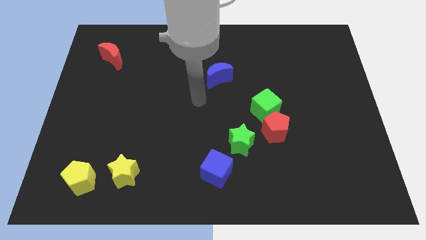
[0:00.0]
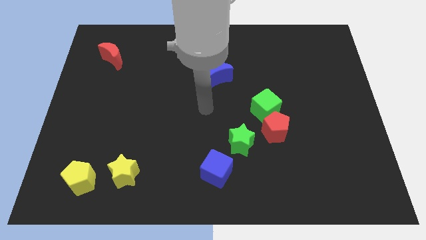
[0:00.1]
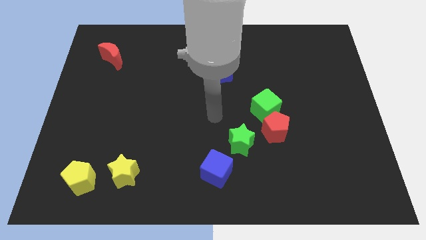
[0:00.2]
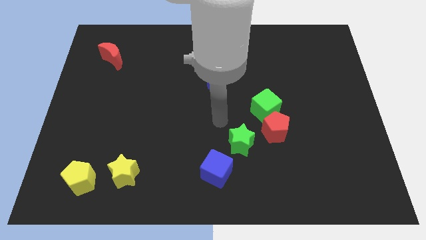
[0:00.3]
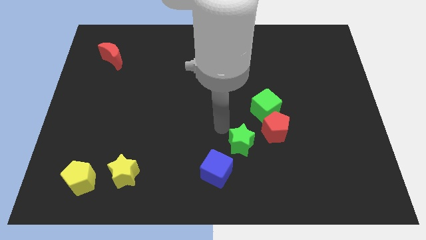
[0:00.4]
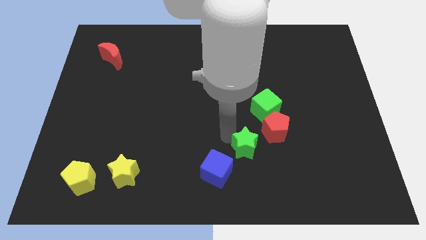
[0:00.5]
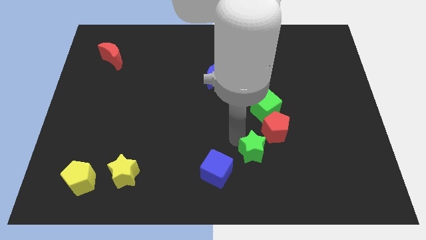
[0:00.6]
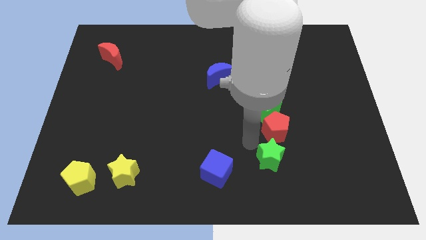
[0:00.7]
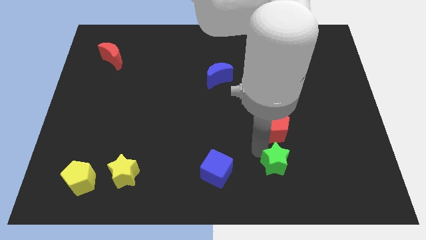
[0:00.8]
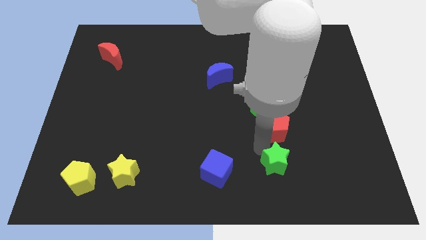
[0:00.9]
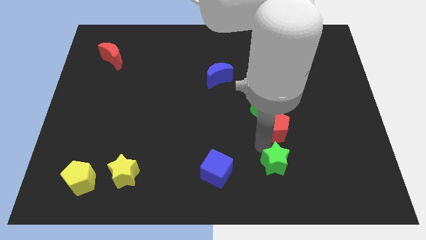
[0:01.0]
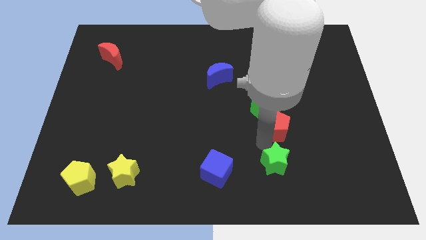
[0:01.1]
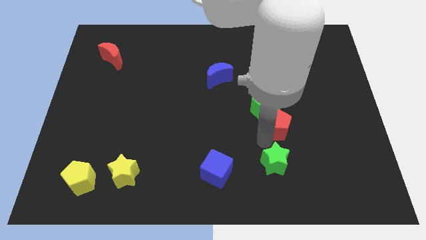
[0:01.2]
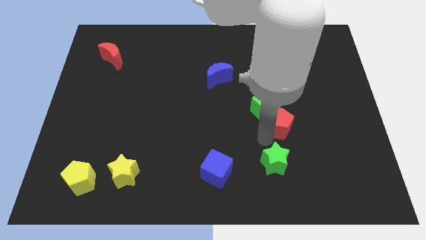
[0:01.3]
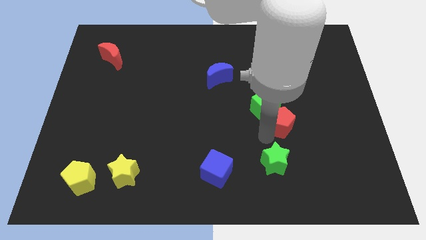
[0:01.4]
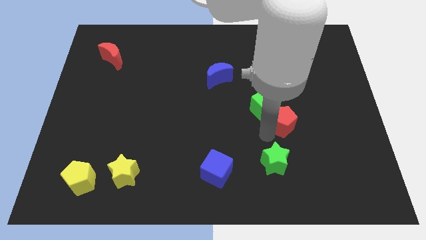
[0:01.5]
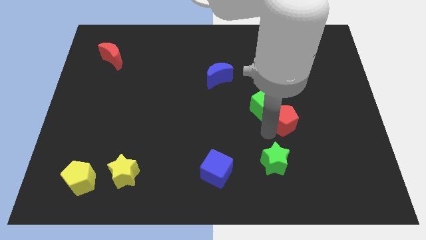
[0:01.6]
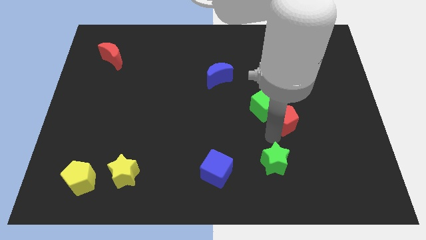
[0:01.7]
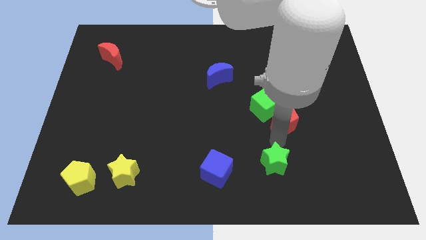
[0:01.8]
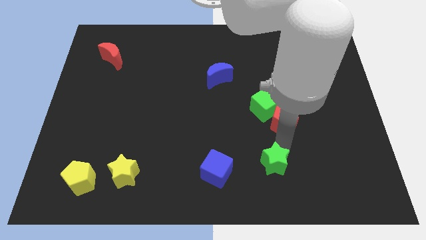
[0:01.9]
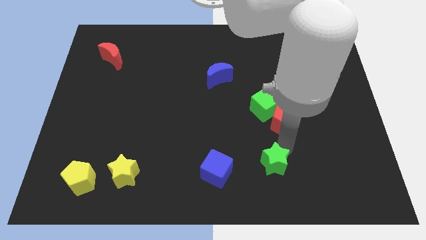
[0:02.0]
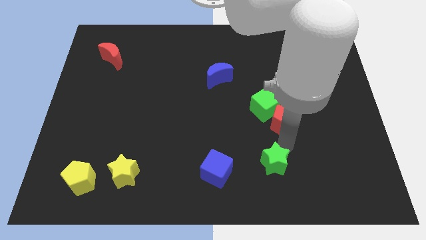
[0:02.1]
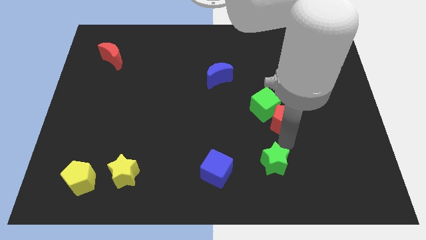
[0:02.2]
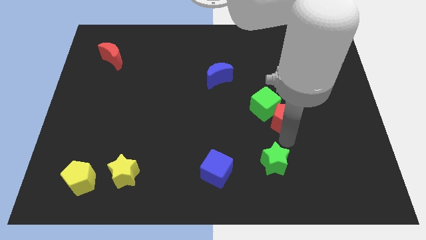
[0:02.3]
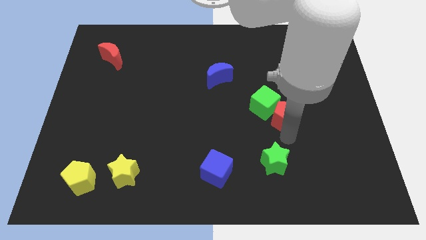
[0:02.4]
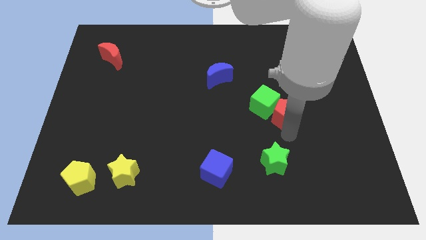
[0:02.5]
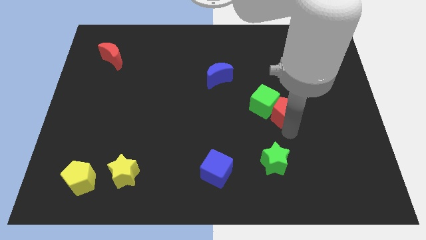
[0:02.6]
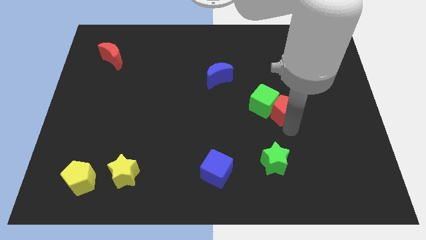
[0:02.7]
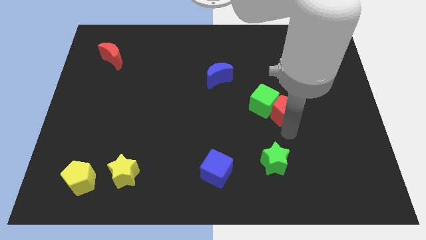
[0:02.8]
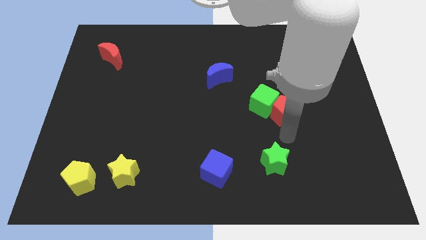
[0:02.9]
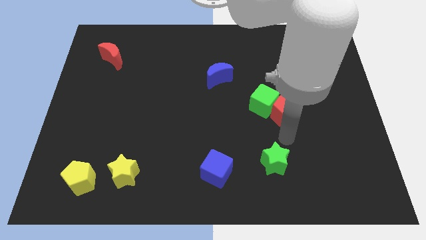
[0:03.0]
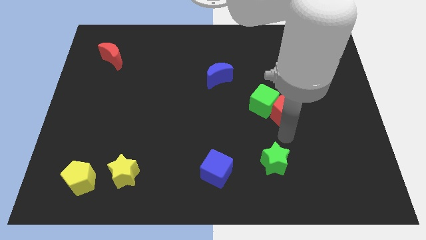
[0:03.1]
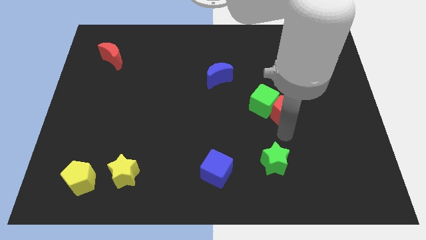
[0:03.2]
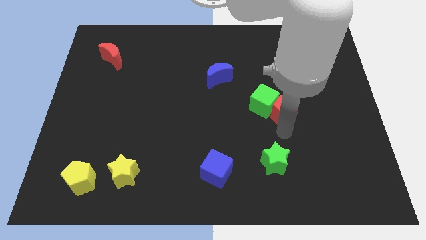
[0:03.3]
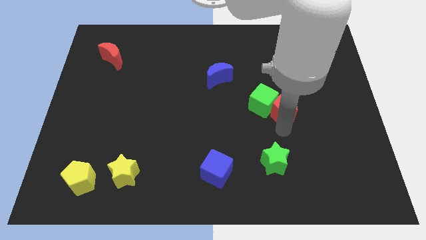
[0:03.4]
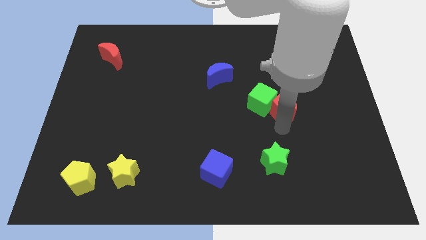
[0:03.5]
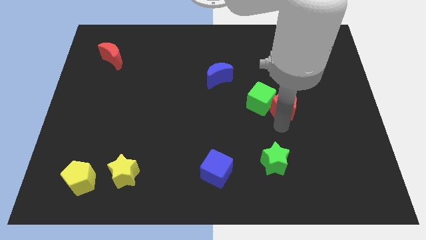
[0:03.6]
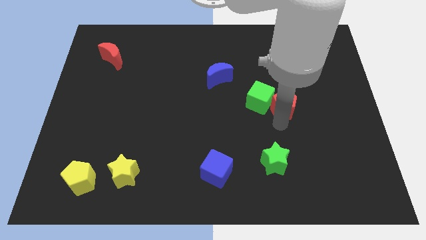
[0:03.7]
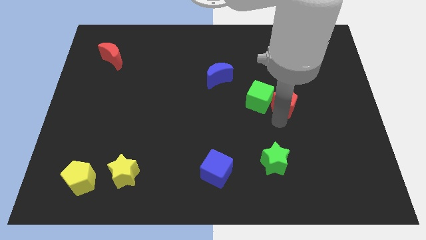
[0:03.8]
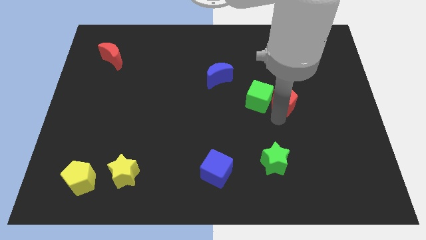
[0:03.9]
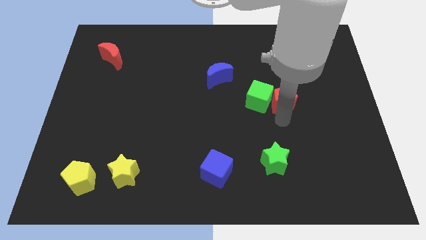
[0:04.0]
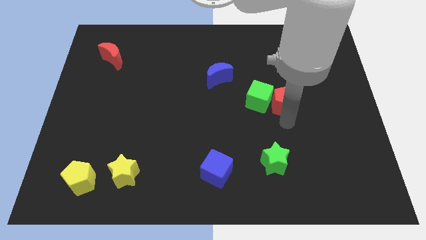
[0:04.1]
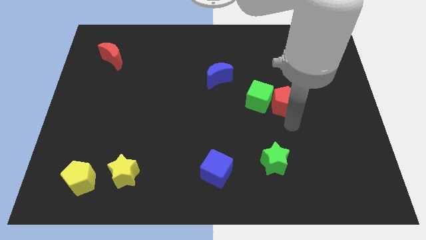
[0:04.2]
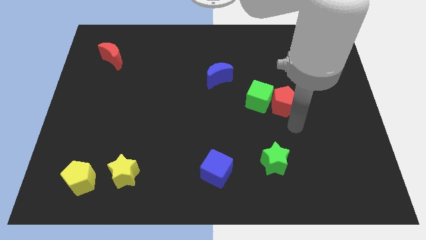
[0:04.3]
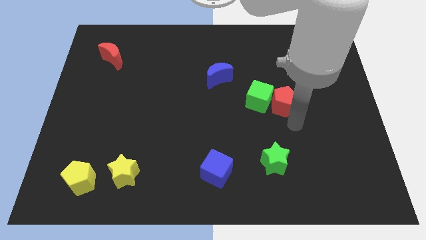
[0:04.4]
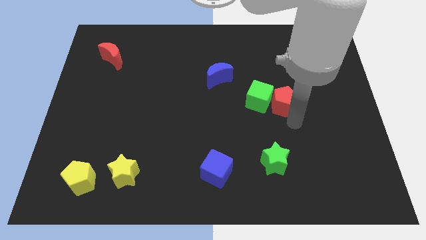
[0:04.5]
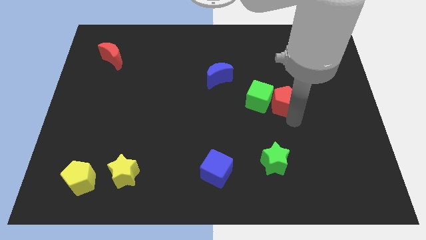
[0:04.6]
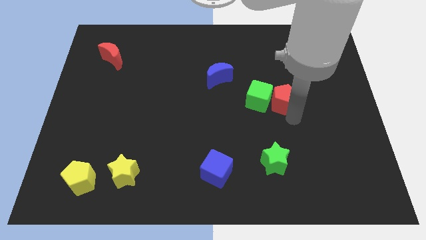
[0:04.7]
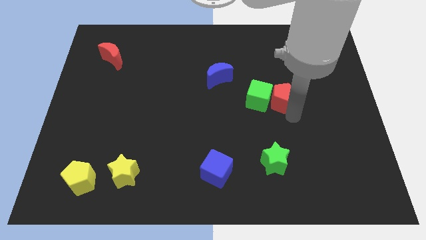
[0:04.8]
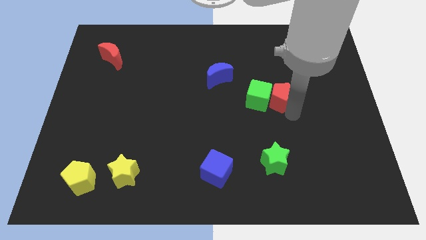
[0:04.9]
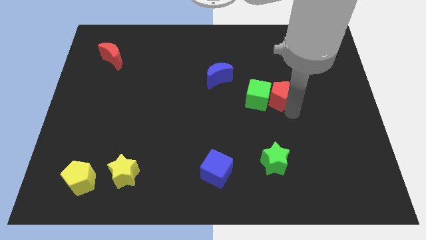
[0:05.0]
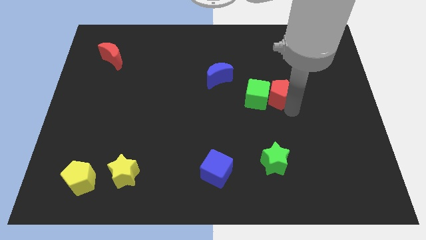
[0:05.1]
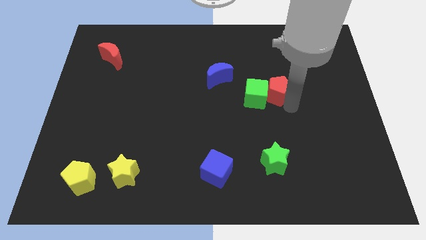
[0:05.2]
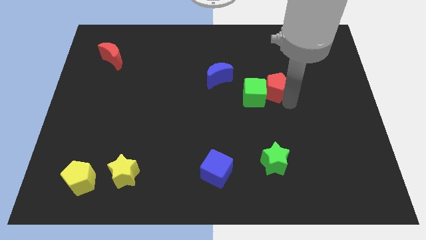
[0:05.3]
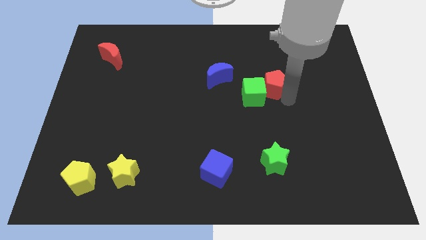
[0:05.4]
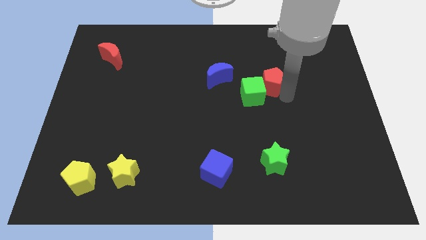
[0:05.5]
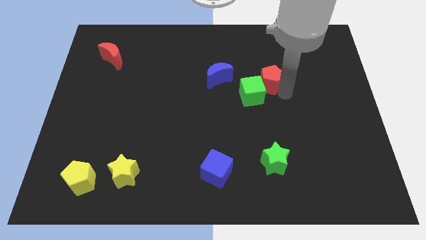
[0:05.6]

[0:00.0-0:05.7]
slide the red pentagon to the top side of the green cube

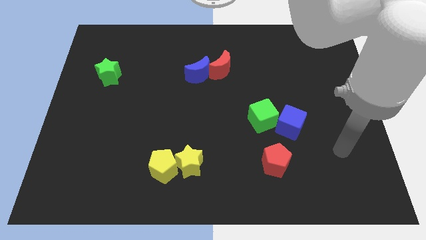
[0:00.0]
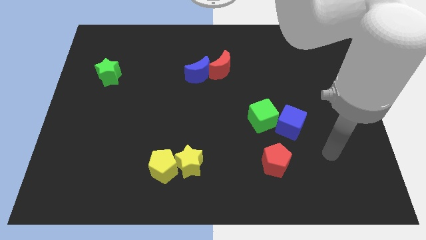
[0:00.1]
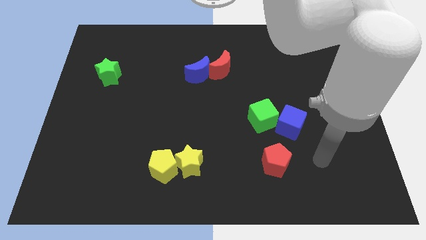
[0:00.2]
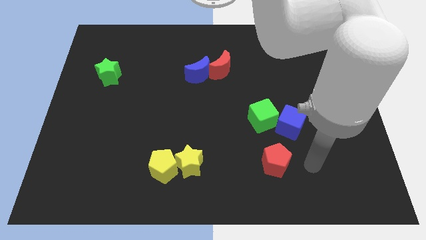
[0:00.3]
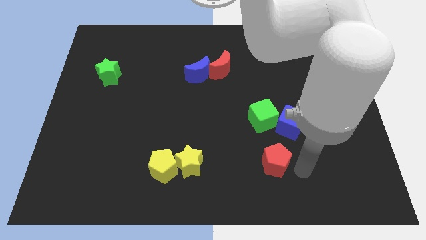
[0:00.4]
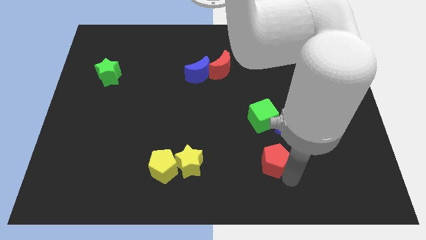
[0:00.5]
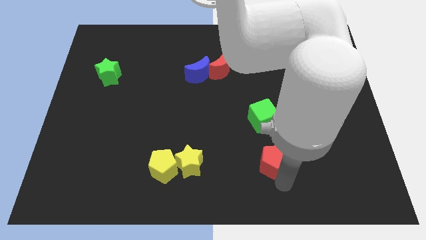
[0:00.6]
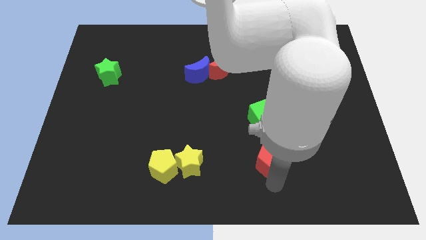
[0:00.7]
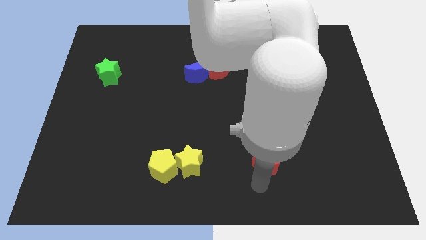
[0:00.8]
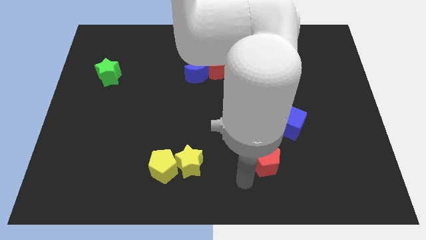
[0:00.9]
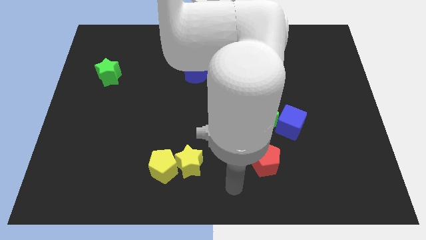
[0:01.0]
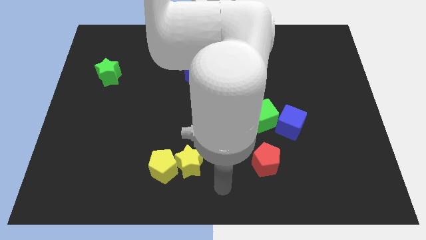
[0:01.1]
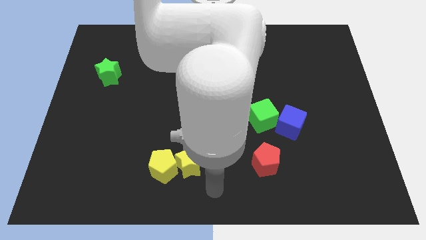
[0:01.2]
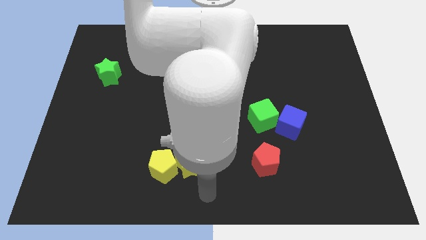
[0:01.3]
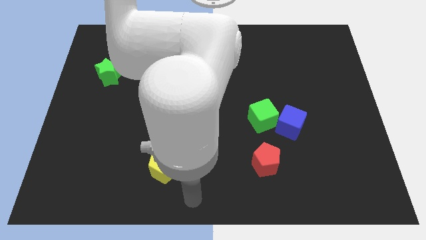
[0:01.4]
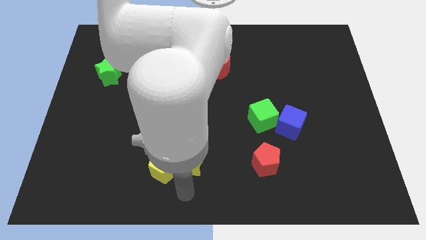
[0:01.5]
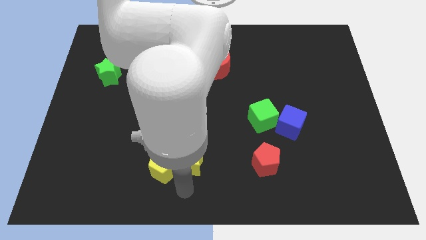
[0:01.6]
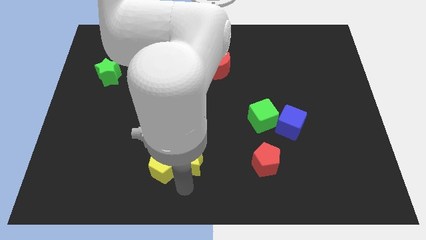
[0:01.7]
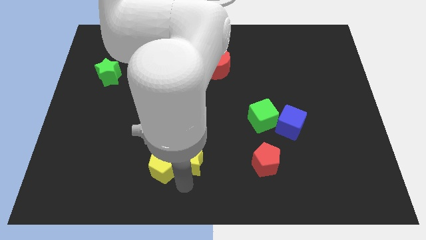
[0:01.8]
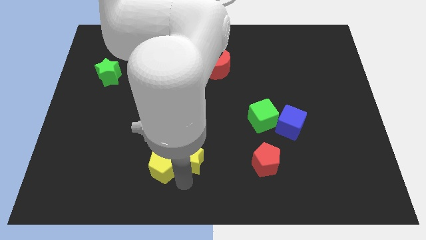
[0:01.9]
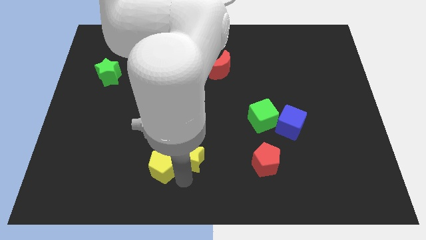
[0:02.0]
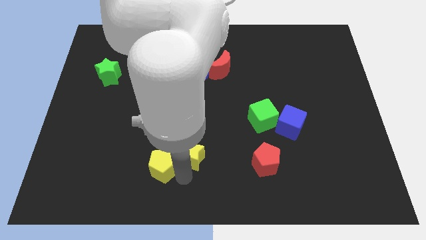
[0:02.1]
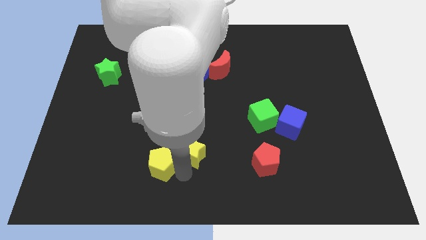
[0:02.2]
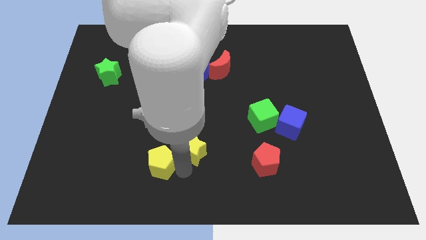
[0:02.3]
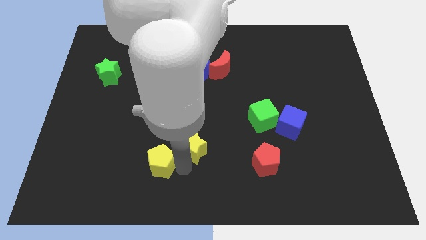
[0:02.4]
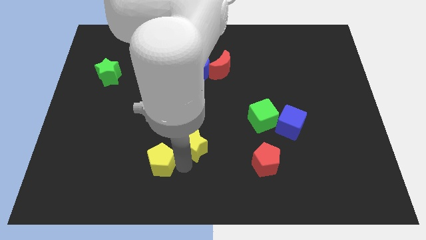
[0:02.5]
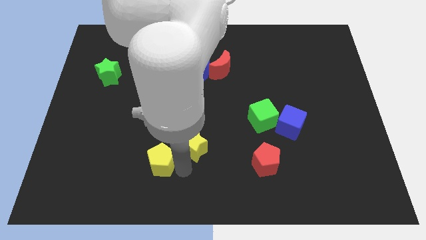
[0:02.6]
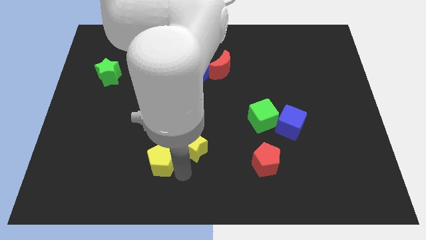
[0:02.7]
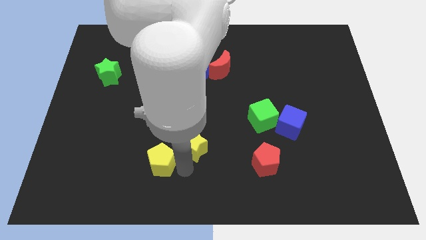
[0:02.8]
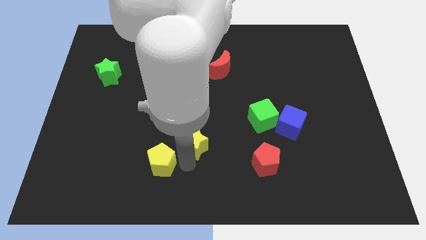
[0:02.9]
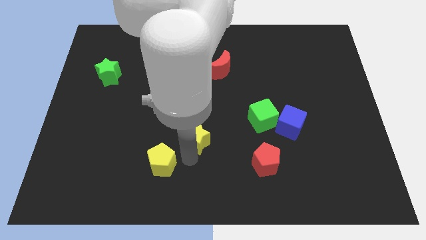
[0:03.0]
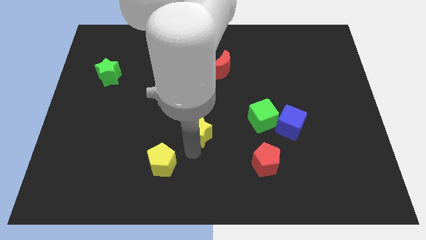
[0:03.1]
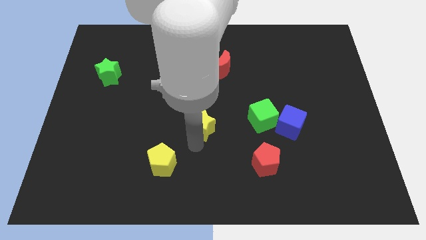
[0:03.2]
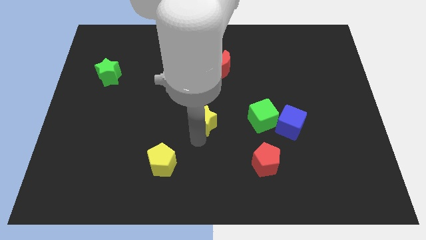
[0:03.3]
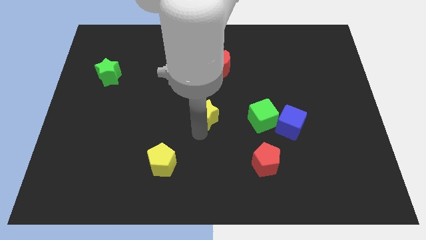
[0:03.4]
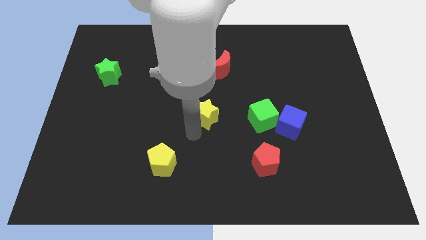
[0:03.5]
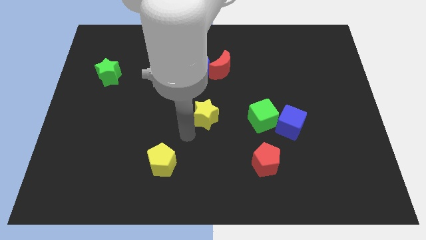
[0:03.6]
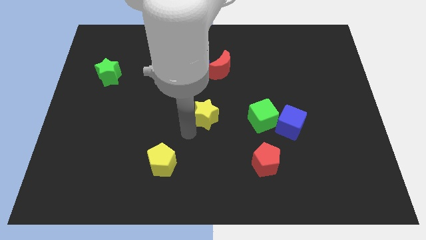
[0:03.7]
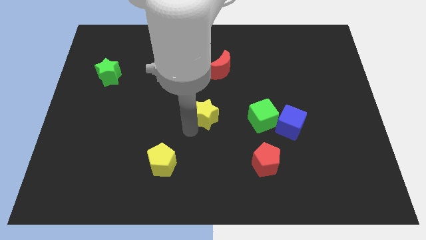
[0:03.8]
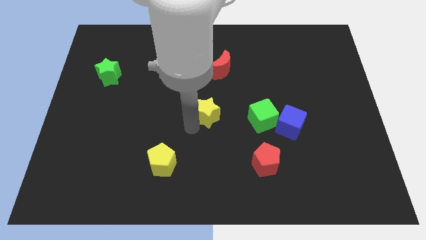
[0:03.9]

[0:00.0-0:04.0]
move the yellow star to the bottom of the red moon
